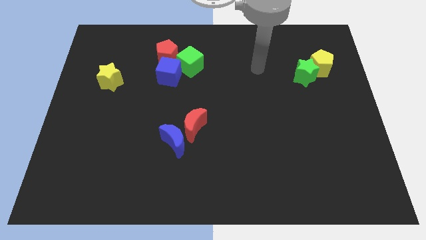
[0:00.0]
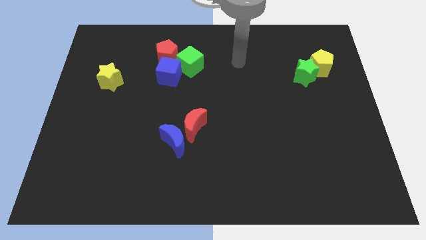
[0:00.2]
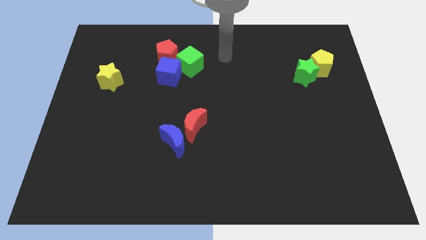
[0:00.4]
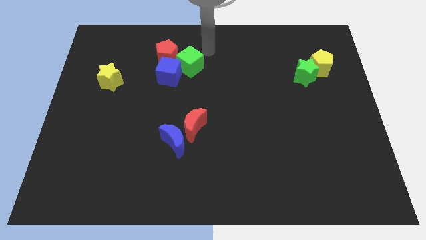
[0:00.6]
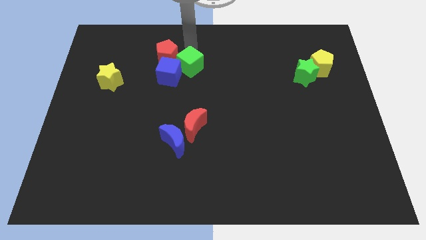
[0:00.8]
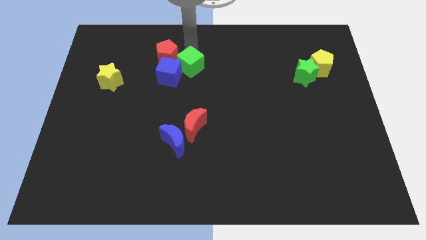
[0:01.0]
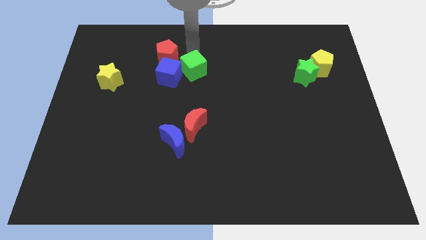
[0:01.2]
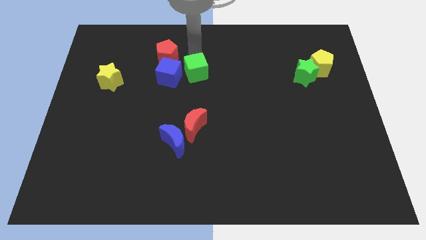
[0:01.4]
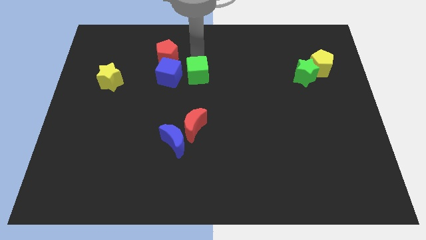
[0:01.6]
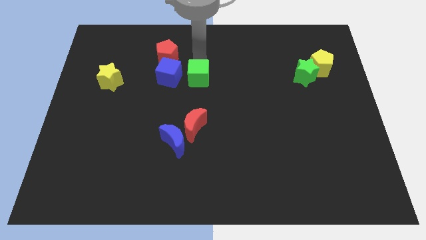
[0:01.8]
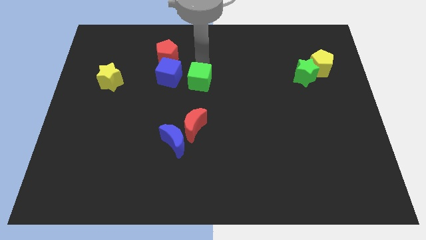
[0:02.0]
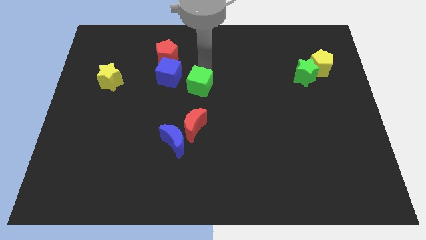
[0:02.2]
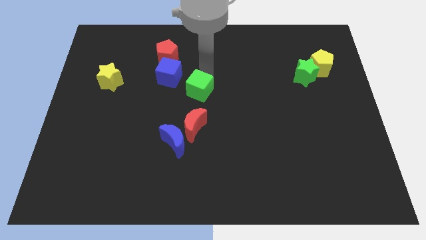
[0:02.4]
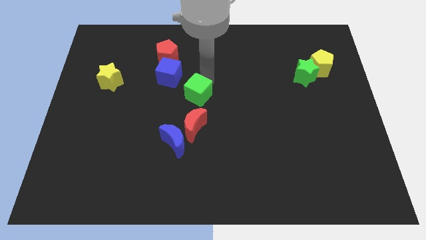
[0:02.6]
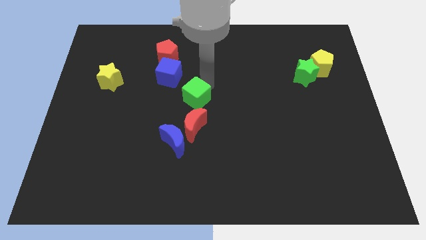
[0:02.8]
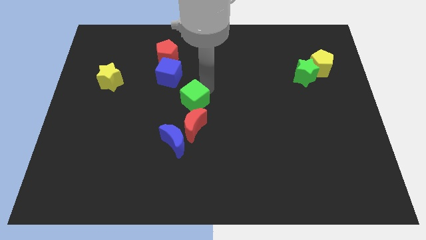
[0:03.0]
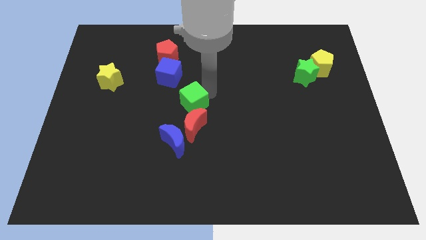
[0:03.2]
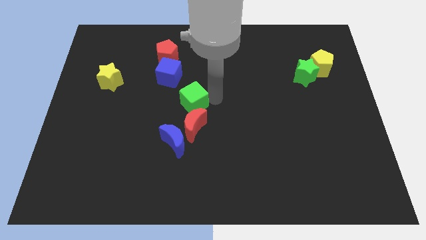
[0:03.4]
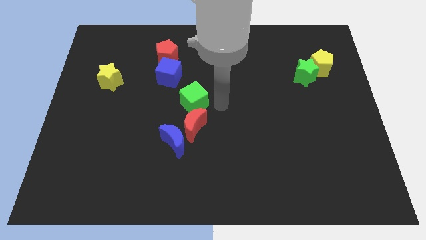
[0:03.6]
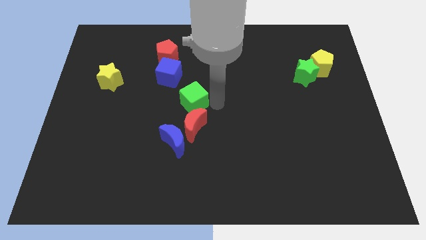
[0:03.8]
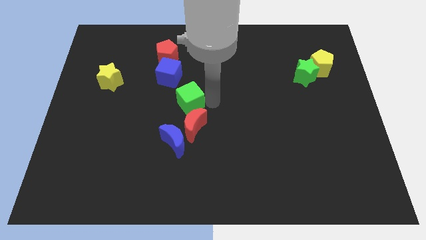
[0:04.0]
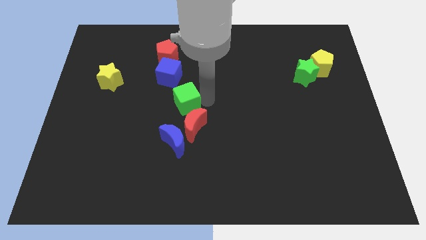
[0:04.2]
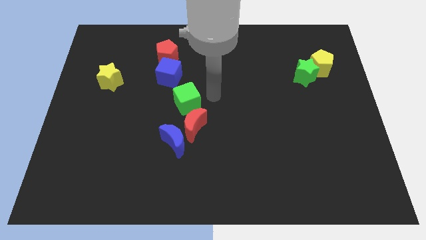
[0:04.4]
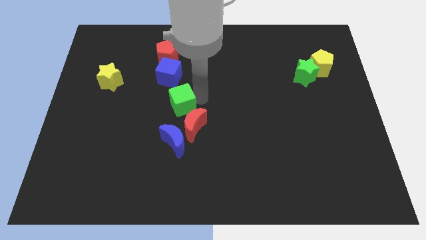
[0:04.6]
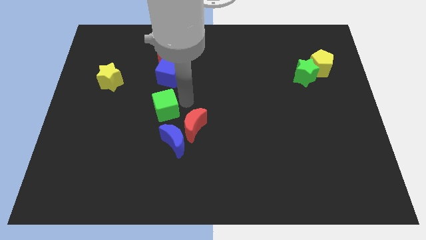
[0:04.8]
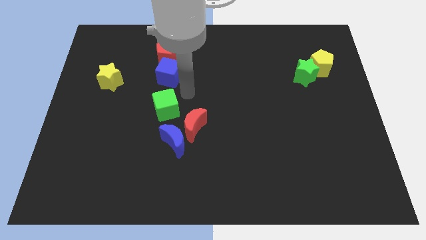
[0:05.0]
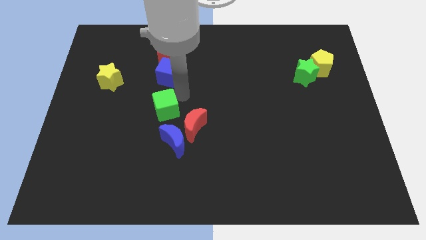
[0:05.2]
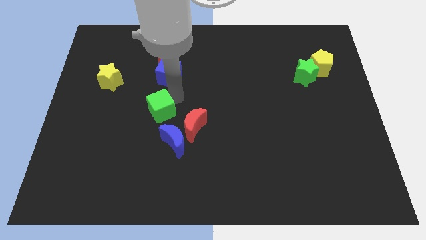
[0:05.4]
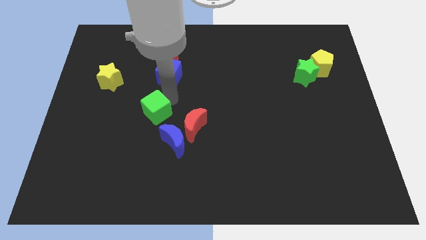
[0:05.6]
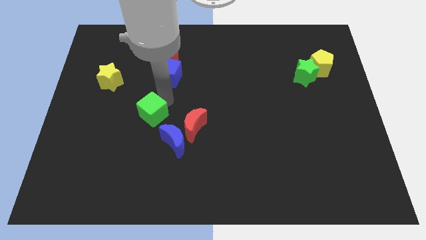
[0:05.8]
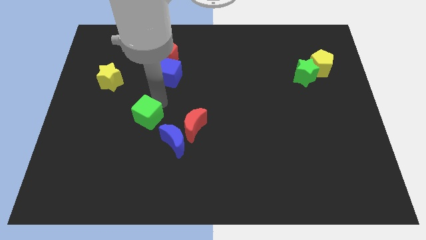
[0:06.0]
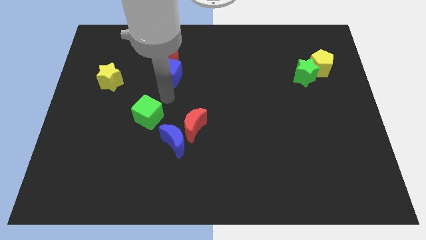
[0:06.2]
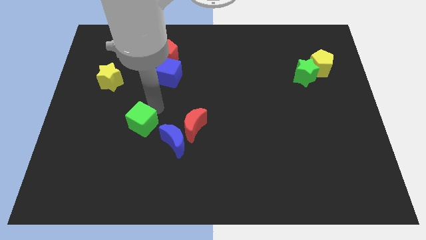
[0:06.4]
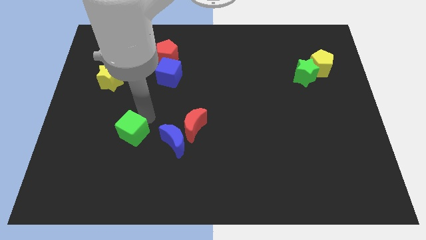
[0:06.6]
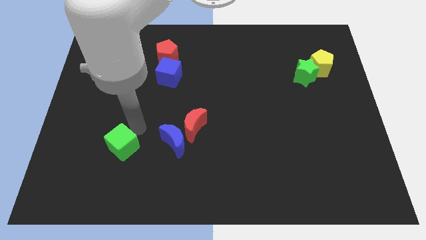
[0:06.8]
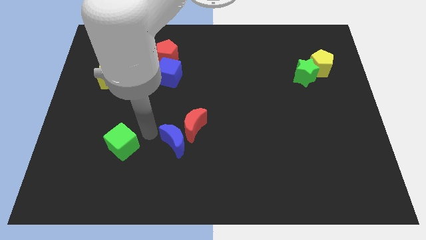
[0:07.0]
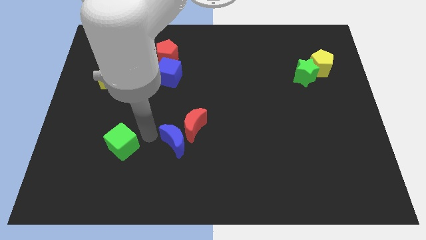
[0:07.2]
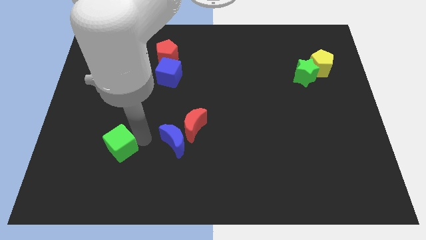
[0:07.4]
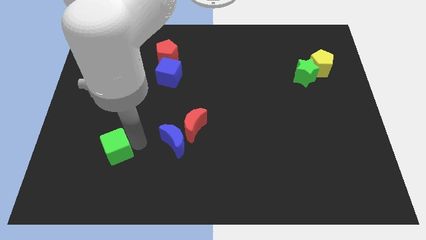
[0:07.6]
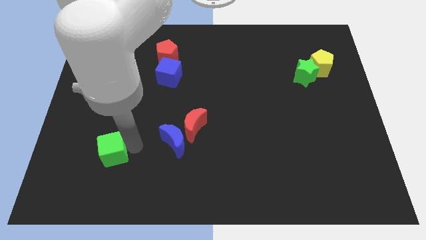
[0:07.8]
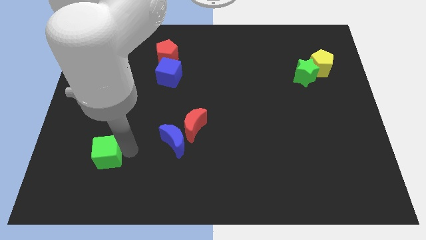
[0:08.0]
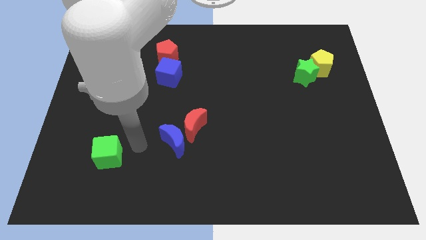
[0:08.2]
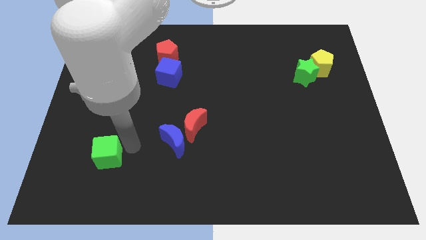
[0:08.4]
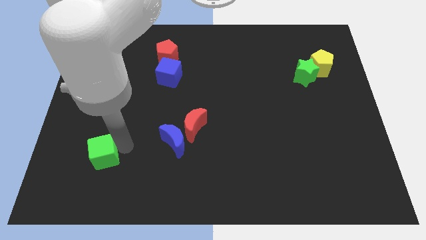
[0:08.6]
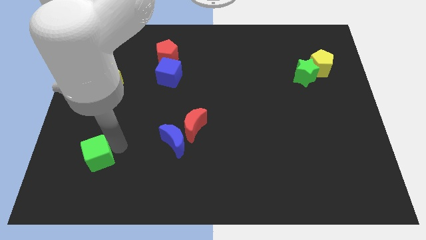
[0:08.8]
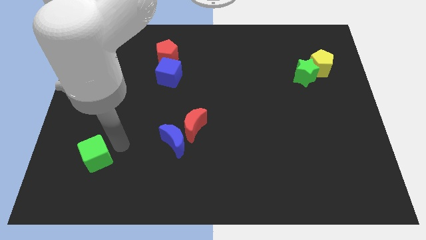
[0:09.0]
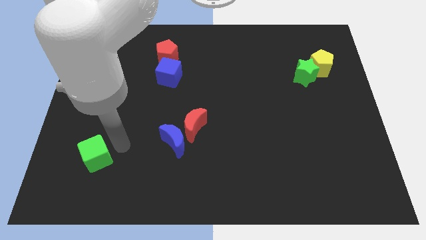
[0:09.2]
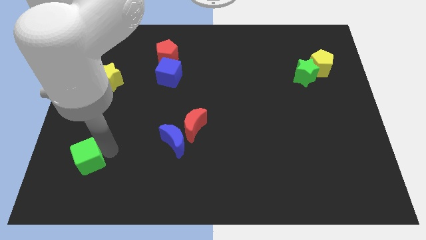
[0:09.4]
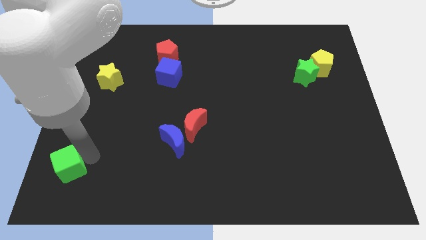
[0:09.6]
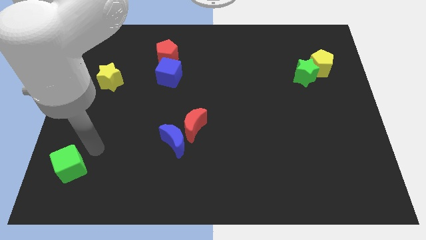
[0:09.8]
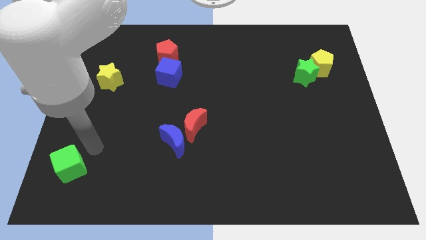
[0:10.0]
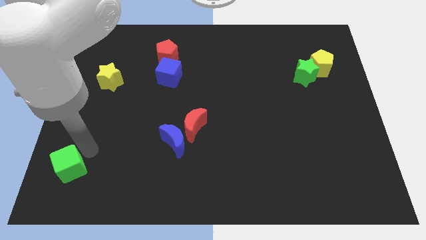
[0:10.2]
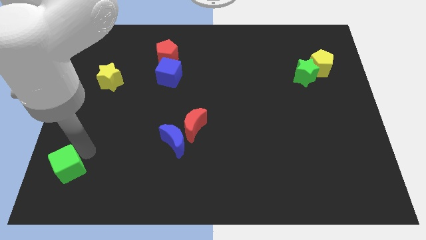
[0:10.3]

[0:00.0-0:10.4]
push the green cube to the lower left corner

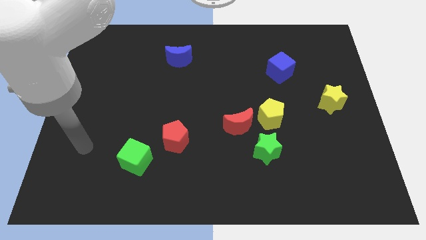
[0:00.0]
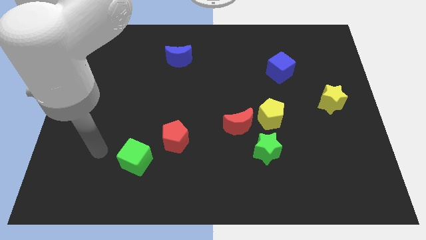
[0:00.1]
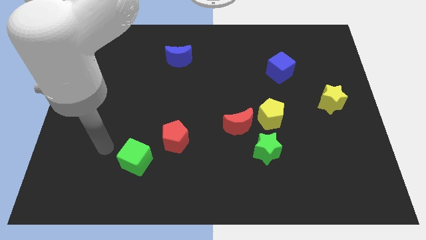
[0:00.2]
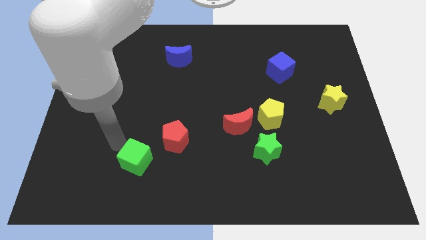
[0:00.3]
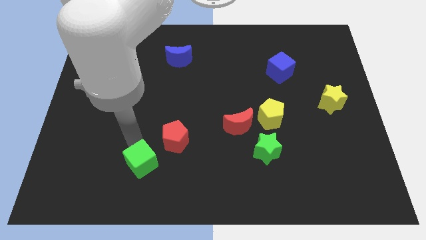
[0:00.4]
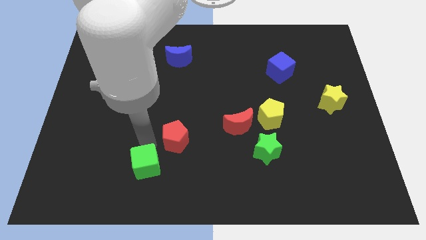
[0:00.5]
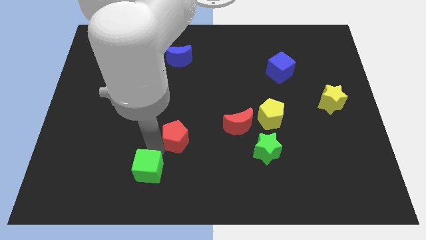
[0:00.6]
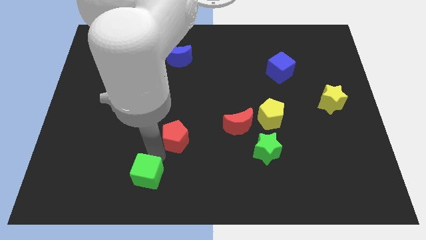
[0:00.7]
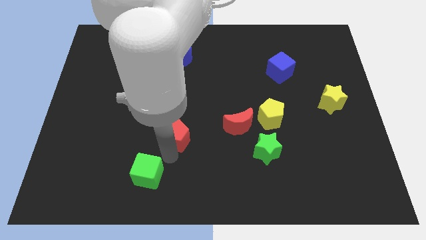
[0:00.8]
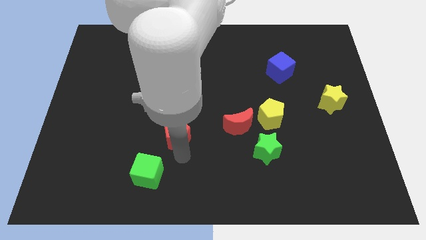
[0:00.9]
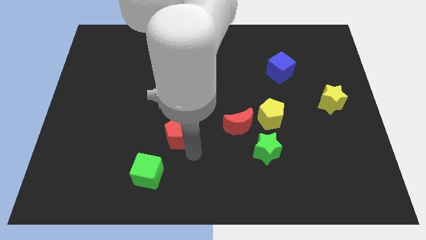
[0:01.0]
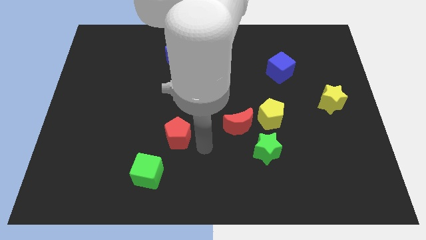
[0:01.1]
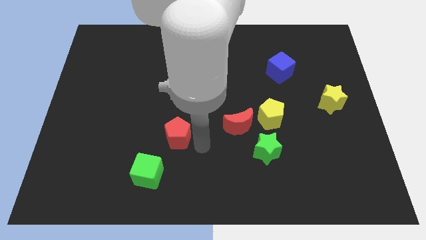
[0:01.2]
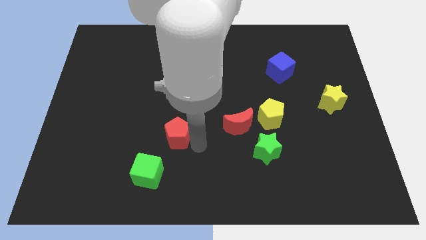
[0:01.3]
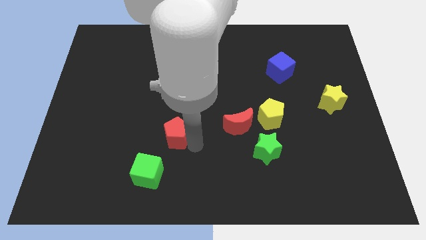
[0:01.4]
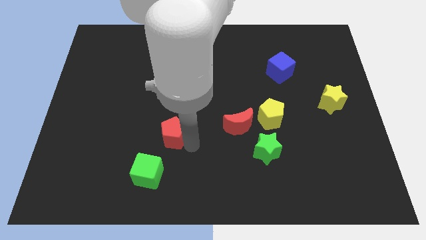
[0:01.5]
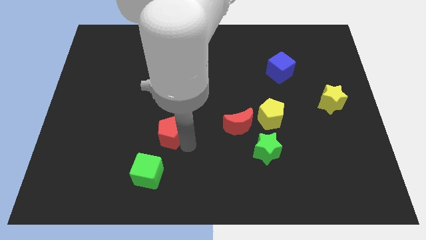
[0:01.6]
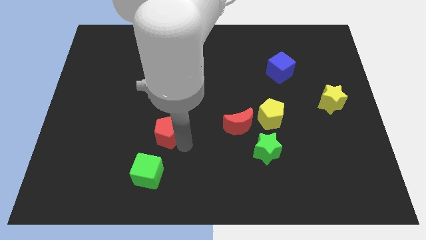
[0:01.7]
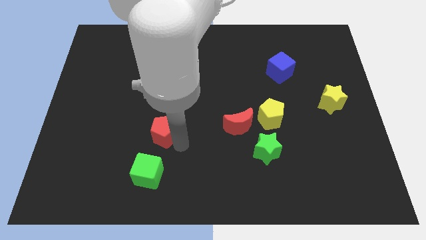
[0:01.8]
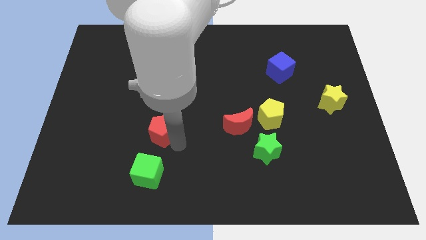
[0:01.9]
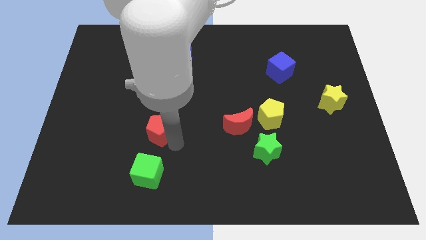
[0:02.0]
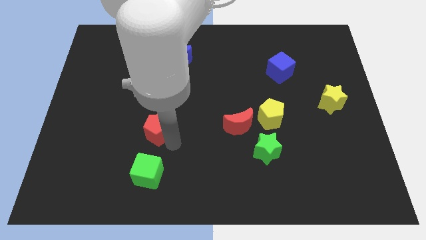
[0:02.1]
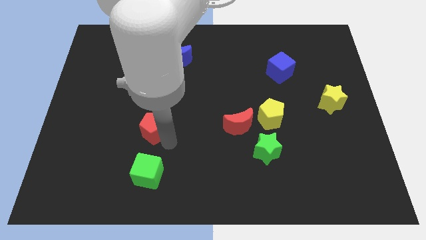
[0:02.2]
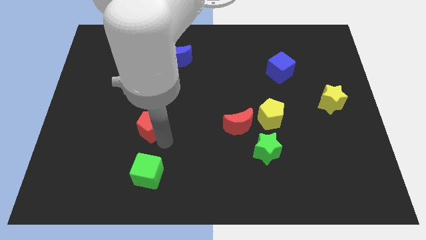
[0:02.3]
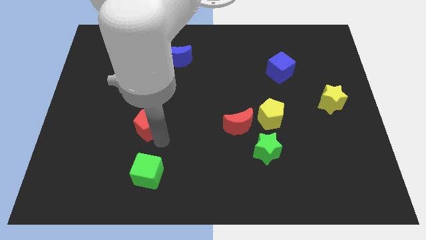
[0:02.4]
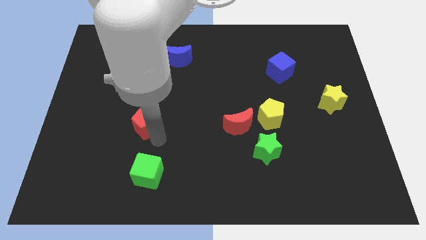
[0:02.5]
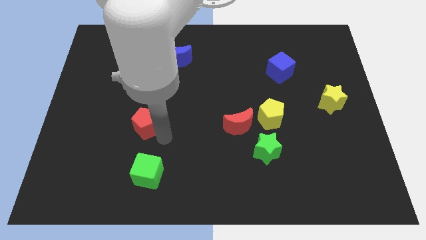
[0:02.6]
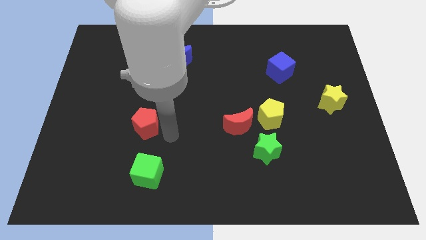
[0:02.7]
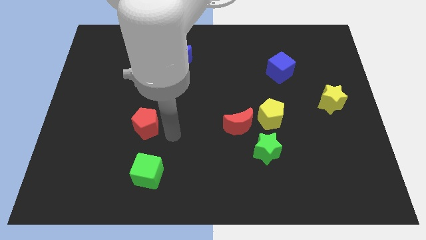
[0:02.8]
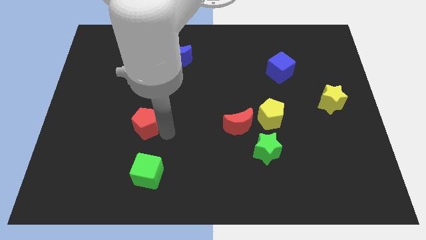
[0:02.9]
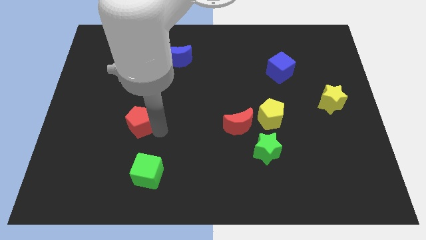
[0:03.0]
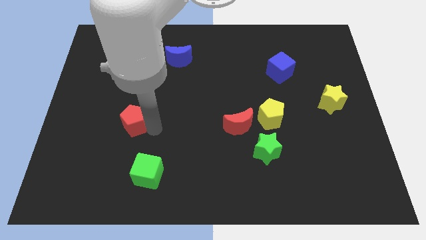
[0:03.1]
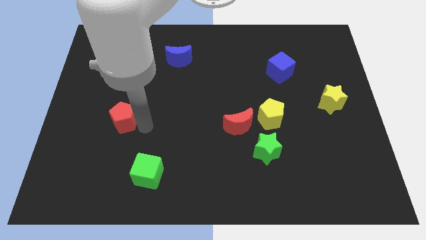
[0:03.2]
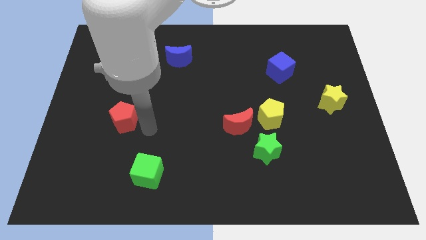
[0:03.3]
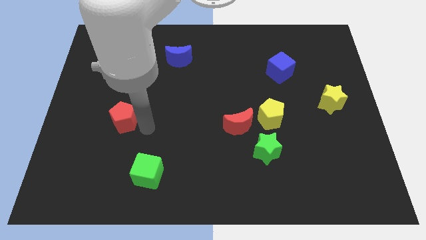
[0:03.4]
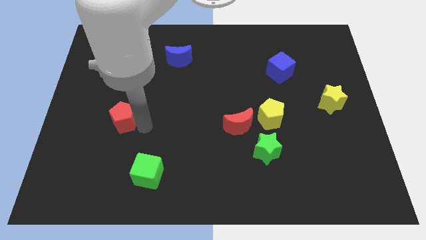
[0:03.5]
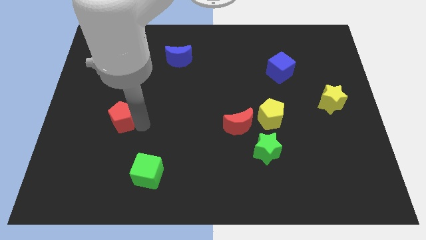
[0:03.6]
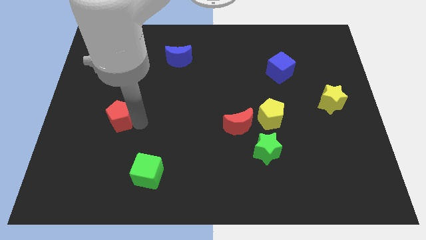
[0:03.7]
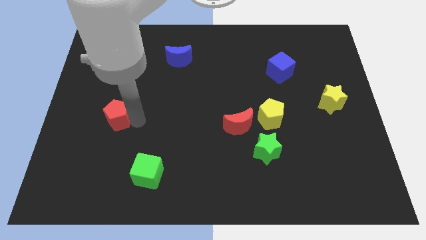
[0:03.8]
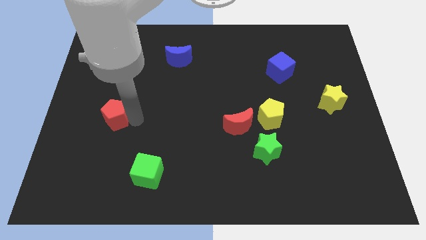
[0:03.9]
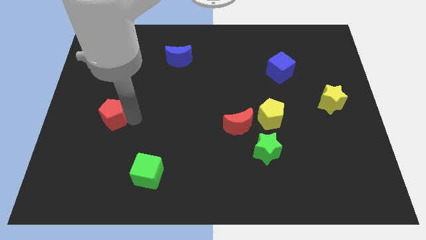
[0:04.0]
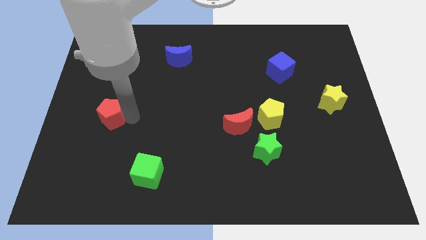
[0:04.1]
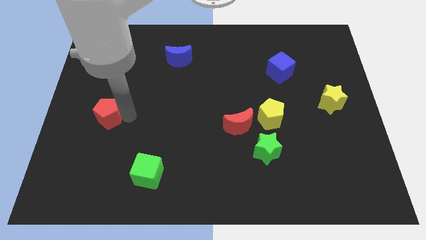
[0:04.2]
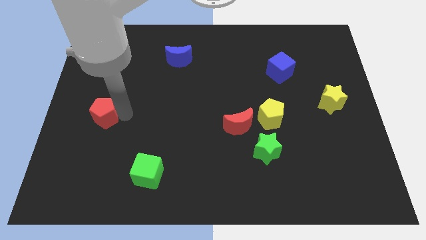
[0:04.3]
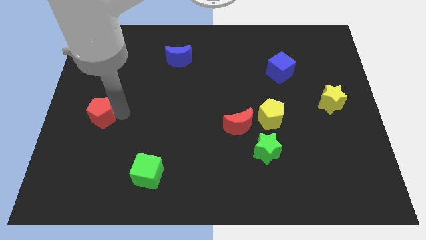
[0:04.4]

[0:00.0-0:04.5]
move the red pentagon to the center left
